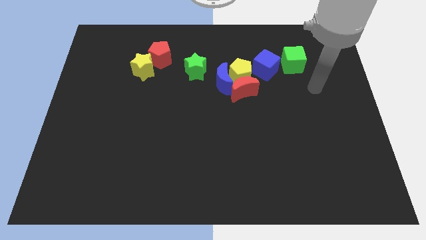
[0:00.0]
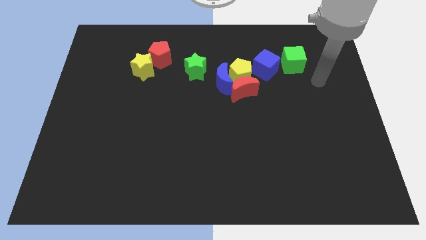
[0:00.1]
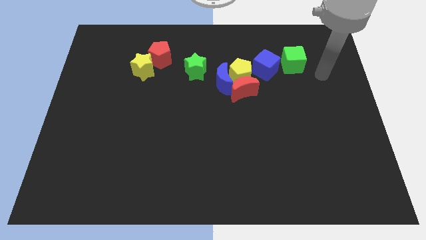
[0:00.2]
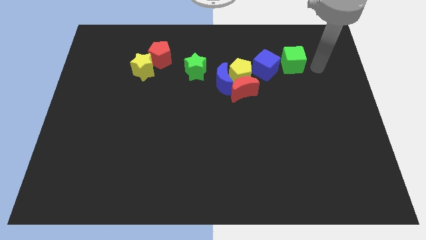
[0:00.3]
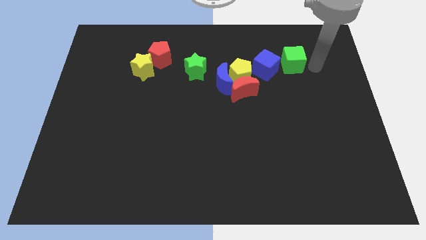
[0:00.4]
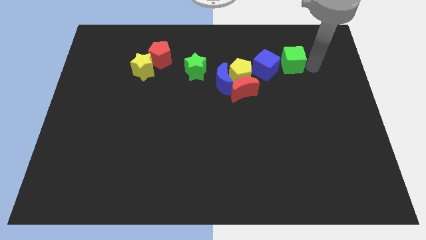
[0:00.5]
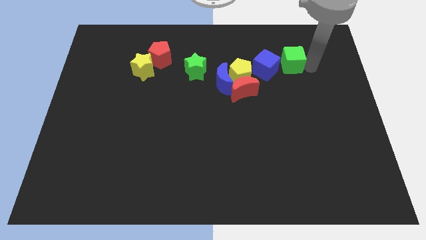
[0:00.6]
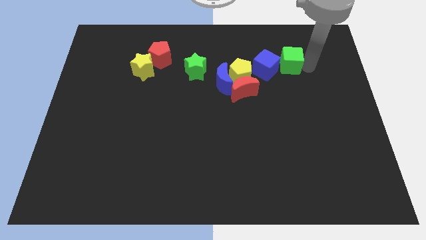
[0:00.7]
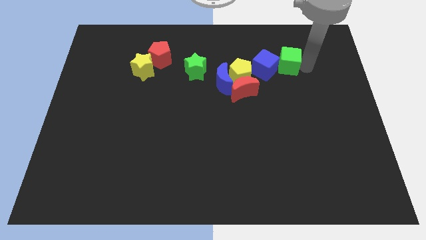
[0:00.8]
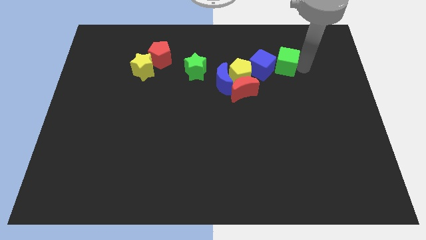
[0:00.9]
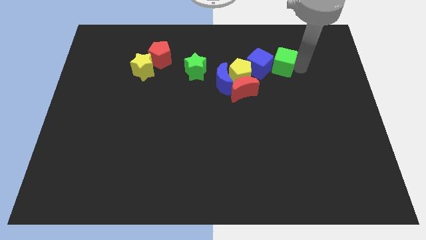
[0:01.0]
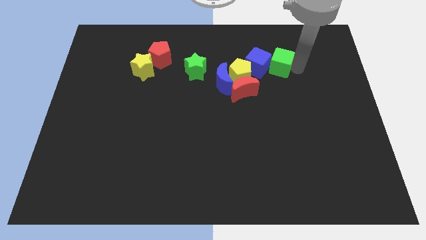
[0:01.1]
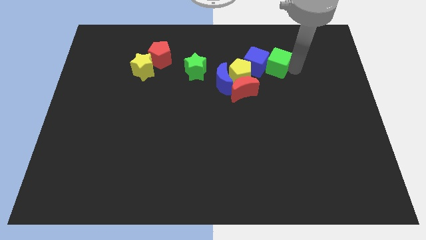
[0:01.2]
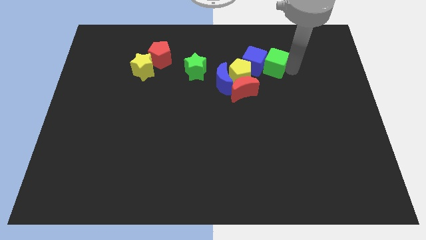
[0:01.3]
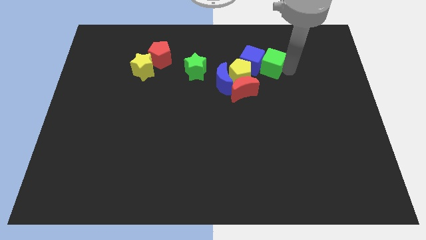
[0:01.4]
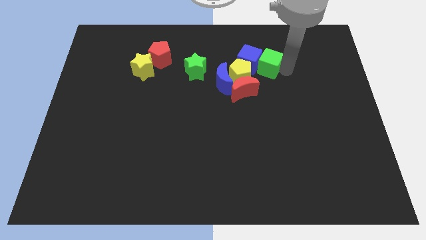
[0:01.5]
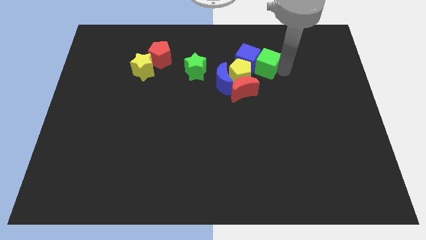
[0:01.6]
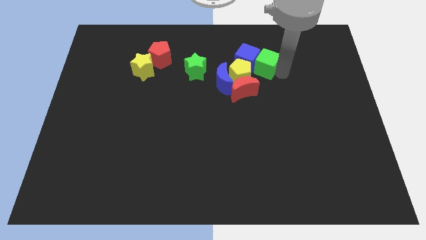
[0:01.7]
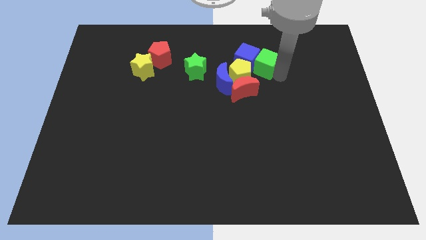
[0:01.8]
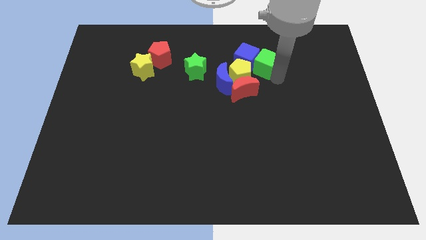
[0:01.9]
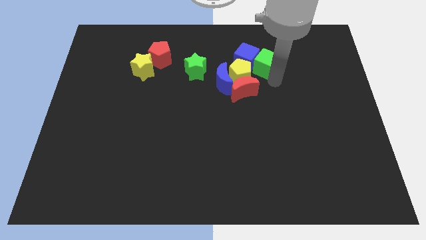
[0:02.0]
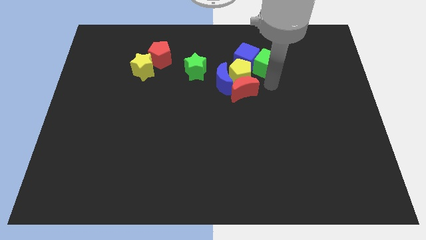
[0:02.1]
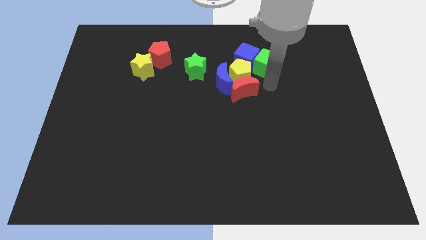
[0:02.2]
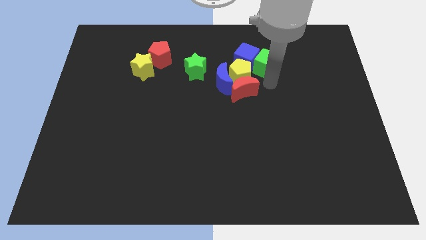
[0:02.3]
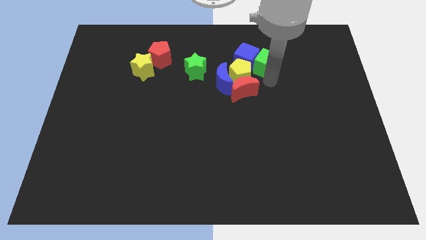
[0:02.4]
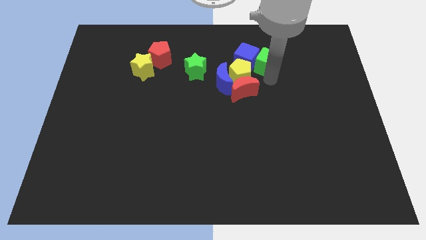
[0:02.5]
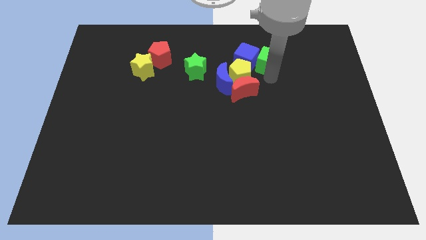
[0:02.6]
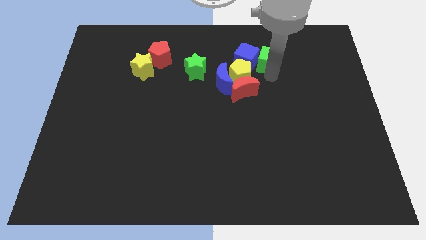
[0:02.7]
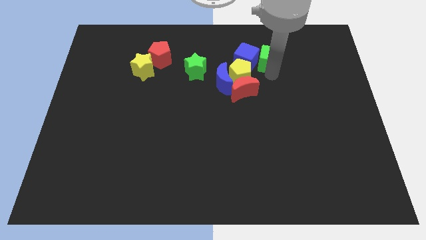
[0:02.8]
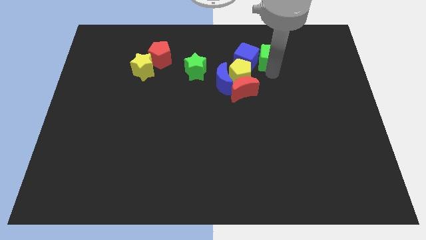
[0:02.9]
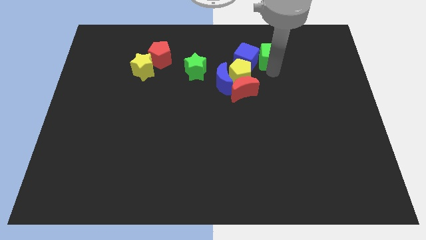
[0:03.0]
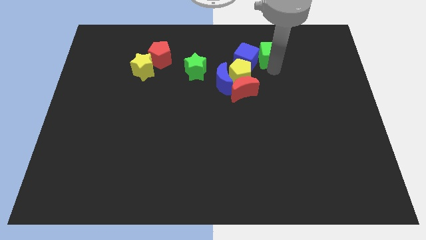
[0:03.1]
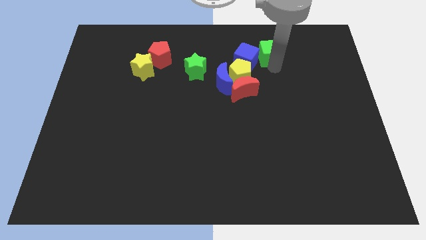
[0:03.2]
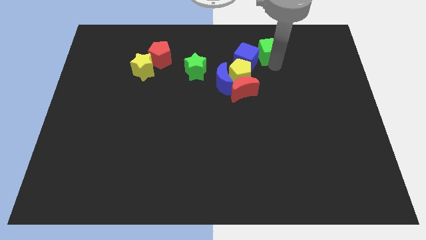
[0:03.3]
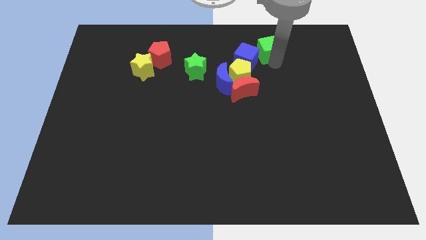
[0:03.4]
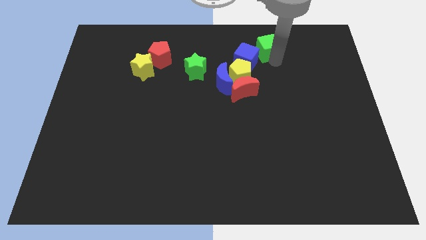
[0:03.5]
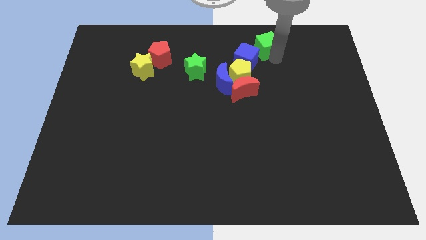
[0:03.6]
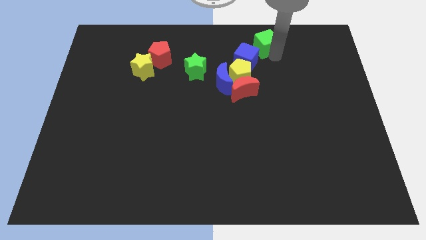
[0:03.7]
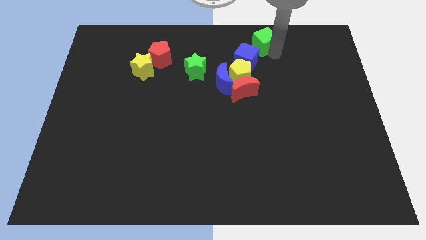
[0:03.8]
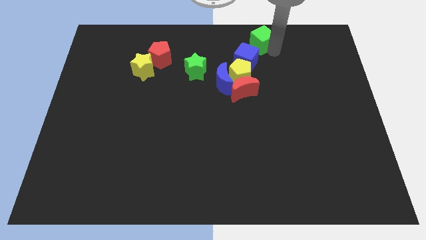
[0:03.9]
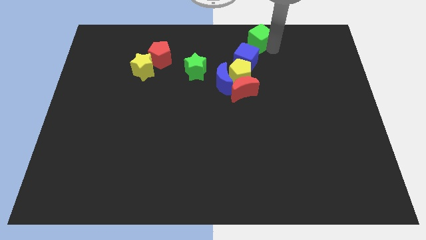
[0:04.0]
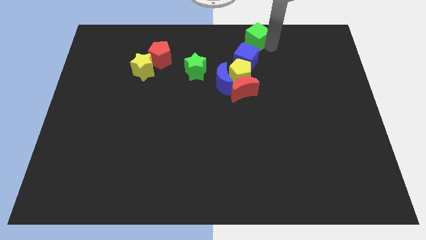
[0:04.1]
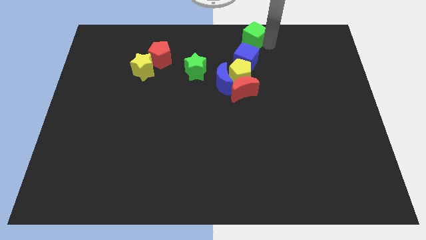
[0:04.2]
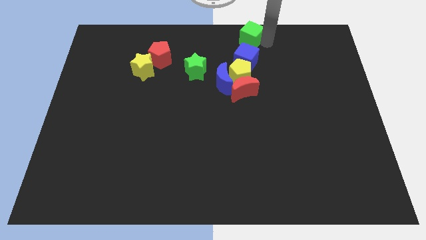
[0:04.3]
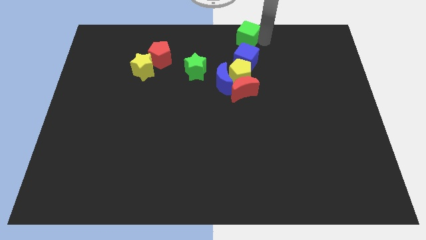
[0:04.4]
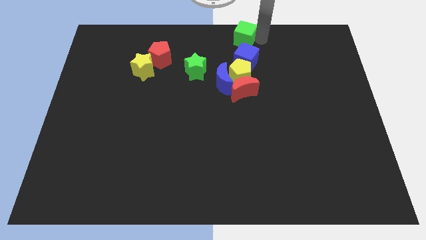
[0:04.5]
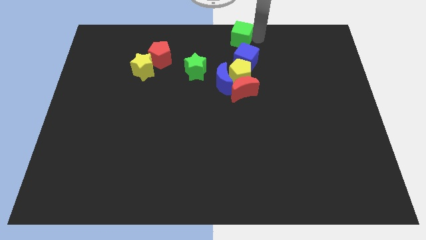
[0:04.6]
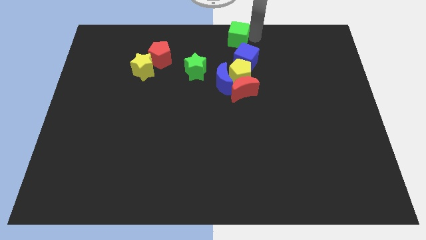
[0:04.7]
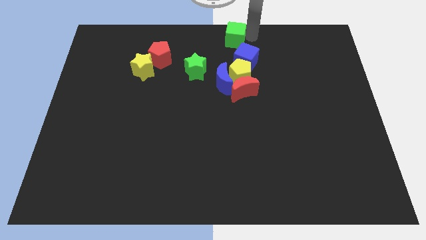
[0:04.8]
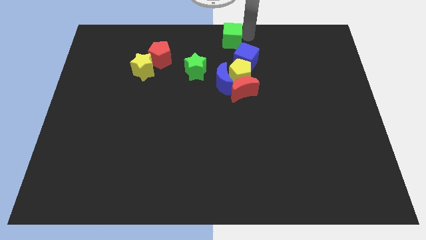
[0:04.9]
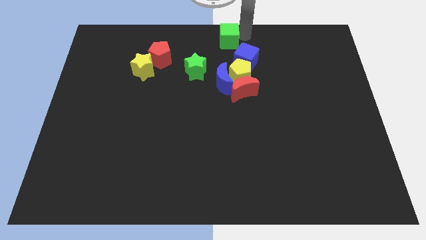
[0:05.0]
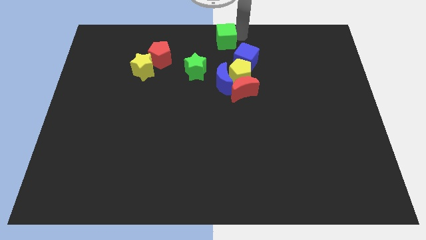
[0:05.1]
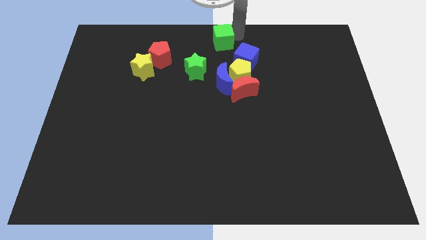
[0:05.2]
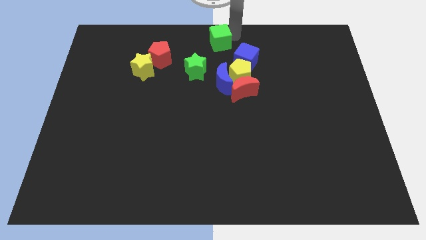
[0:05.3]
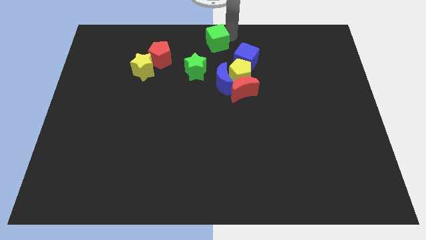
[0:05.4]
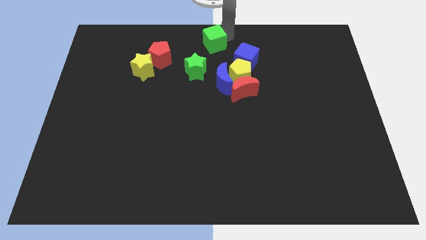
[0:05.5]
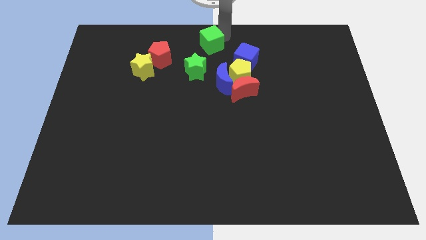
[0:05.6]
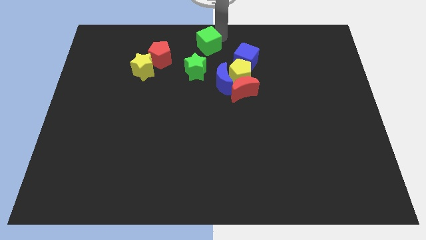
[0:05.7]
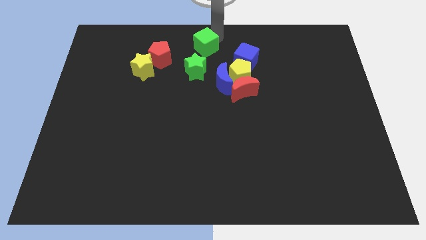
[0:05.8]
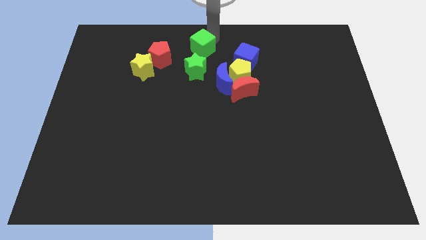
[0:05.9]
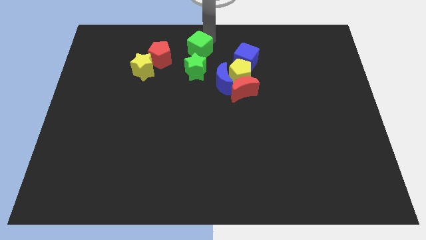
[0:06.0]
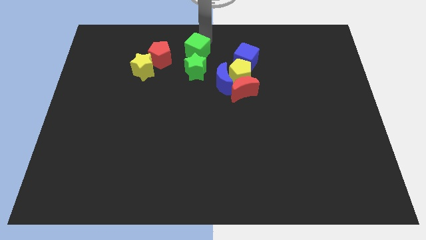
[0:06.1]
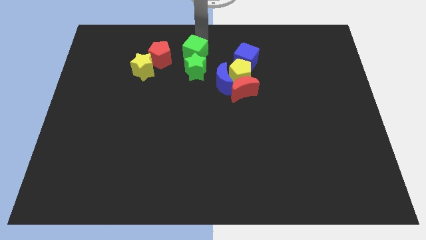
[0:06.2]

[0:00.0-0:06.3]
move the green cube next to the green star

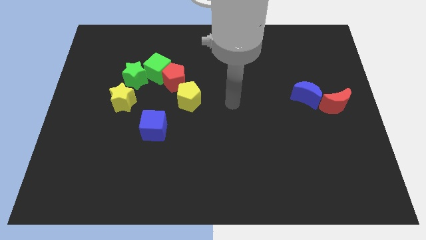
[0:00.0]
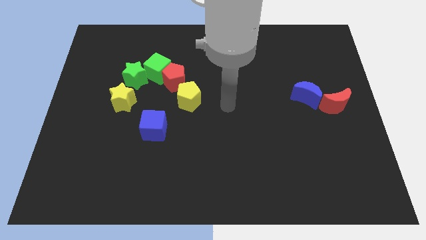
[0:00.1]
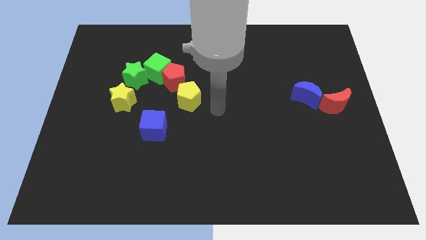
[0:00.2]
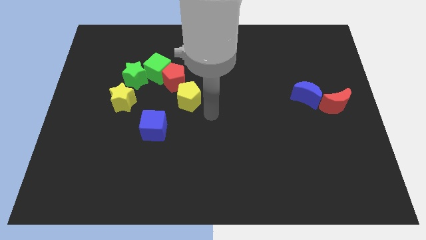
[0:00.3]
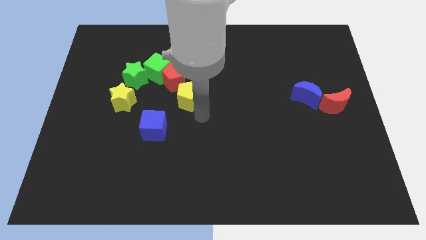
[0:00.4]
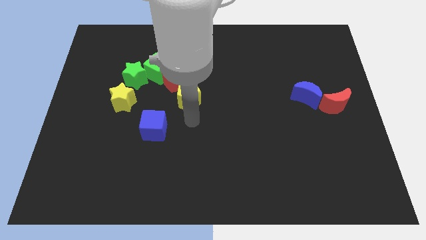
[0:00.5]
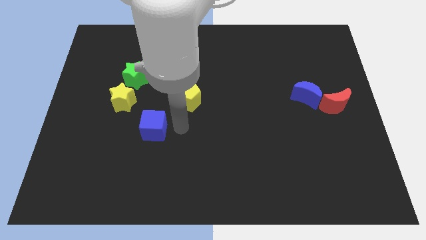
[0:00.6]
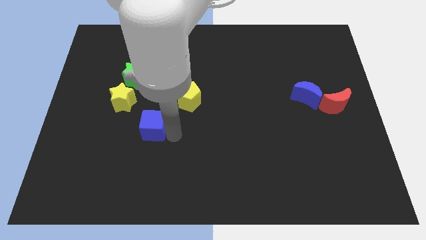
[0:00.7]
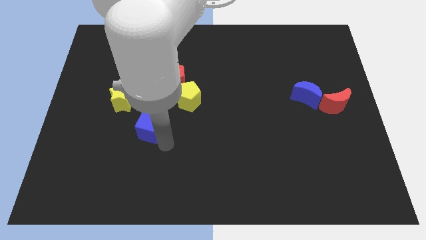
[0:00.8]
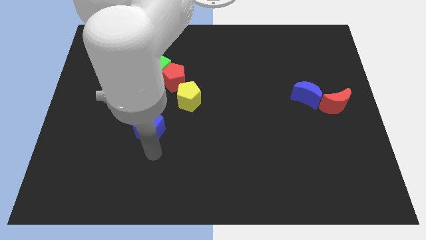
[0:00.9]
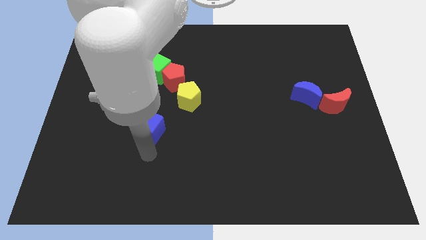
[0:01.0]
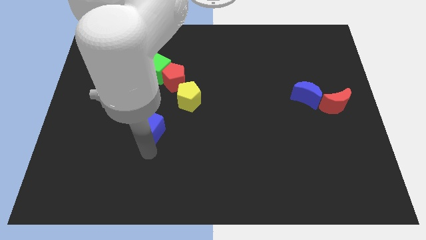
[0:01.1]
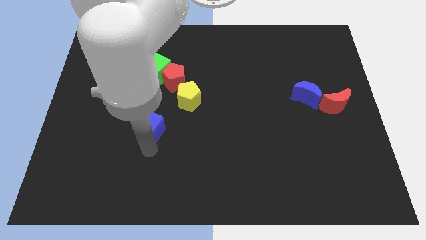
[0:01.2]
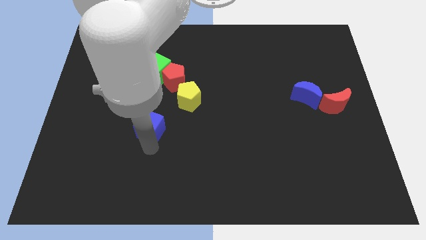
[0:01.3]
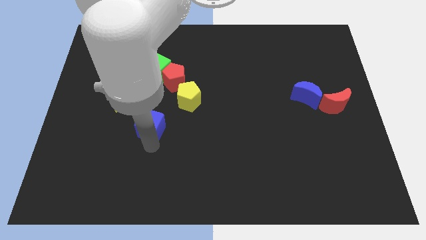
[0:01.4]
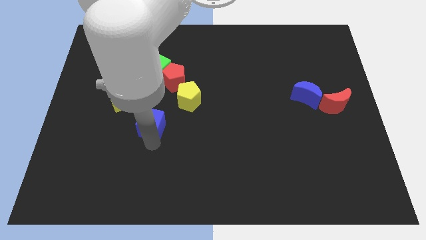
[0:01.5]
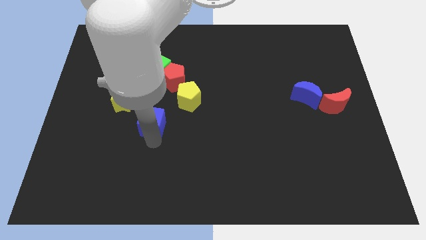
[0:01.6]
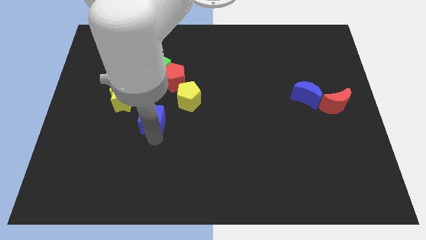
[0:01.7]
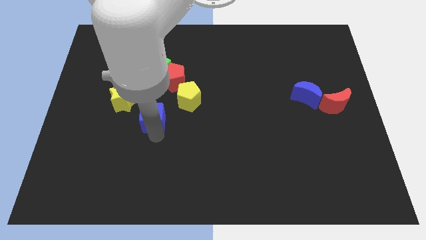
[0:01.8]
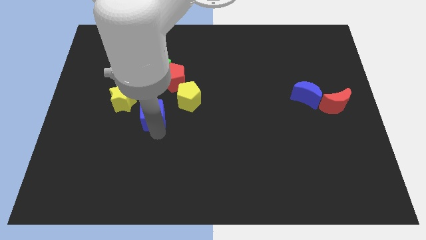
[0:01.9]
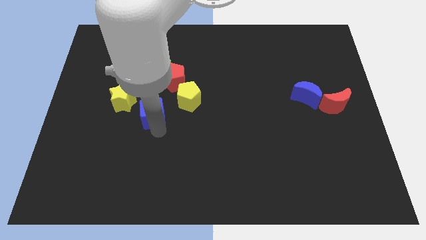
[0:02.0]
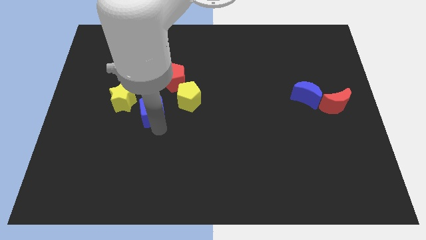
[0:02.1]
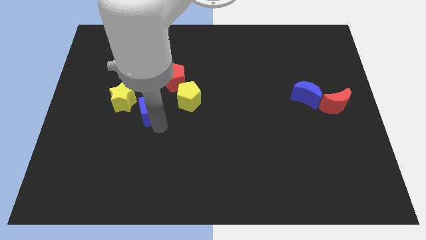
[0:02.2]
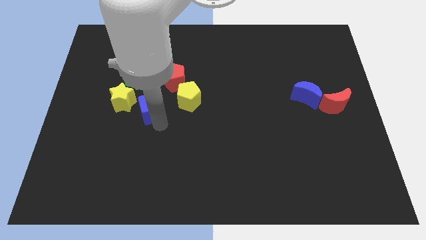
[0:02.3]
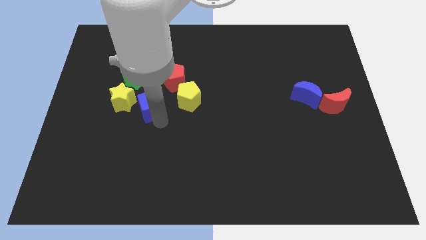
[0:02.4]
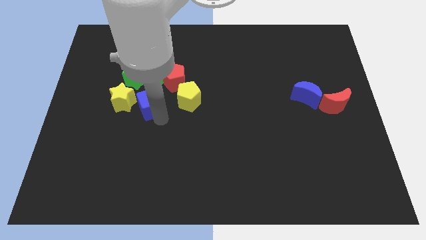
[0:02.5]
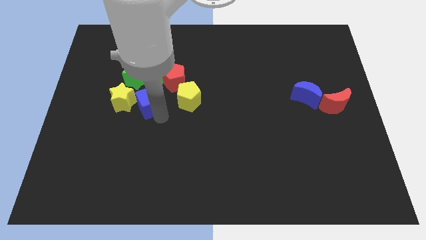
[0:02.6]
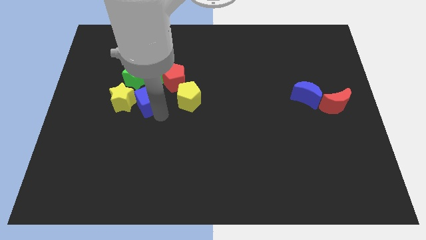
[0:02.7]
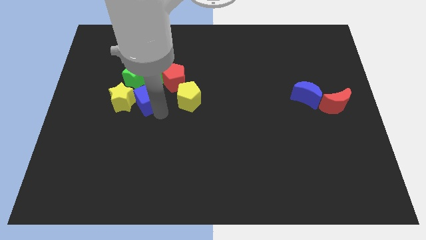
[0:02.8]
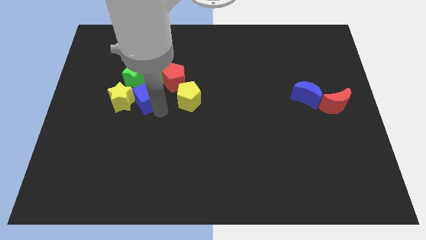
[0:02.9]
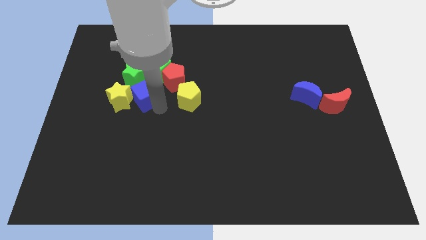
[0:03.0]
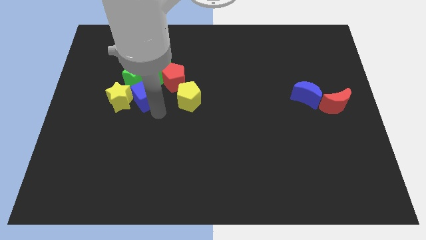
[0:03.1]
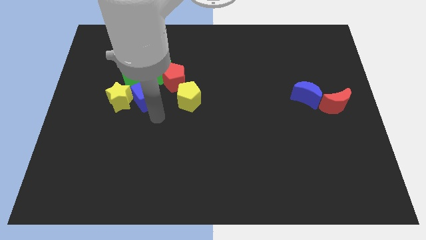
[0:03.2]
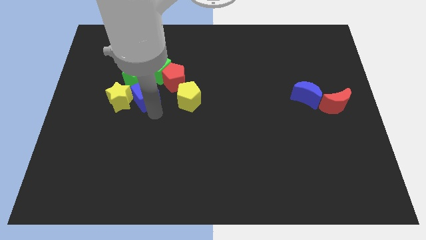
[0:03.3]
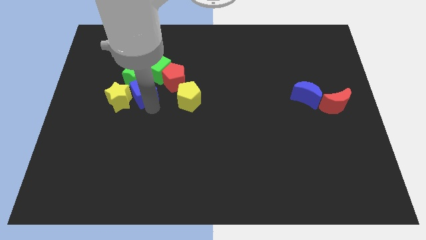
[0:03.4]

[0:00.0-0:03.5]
push the blue cube close to the green star
